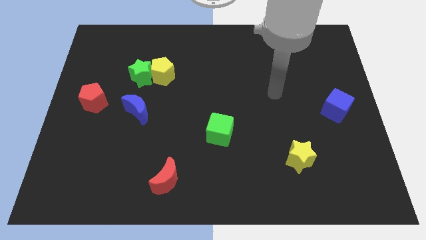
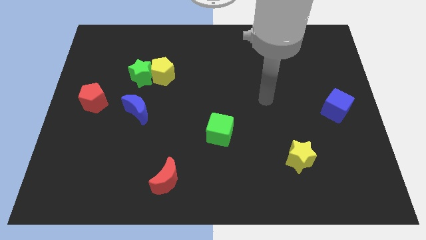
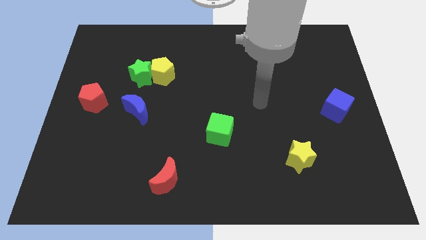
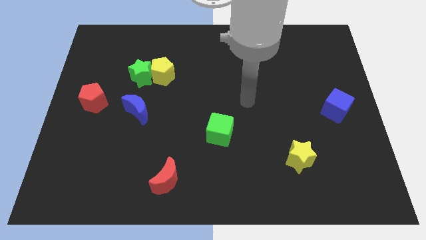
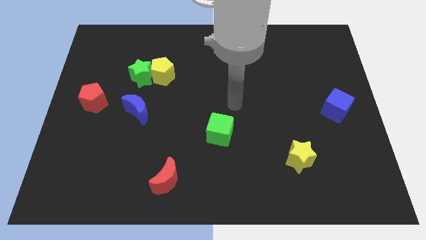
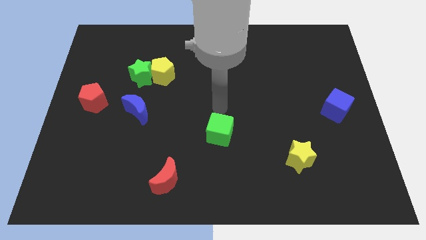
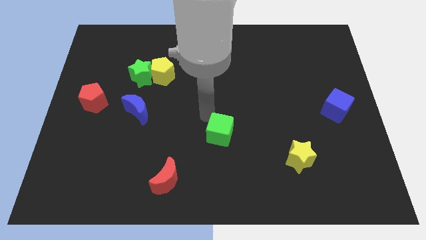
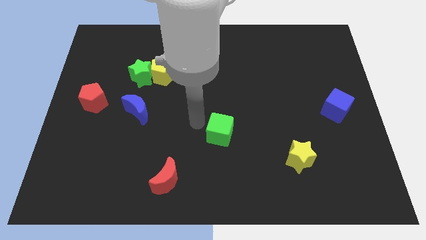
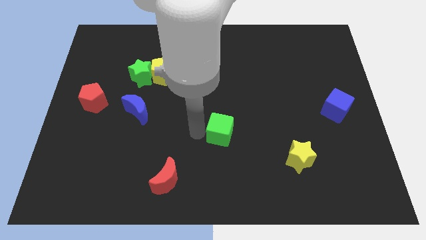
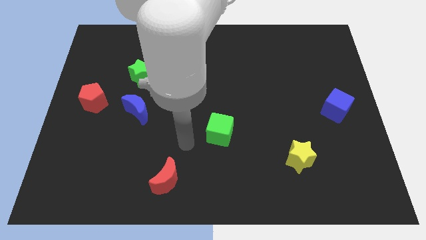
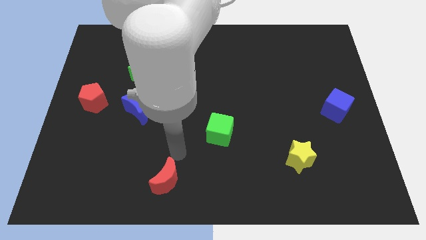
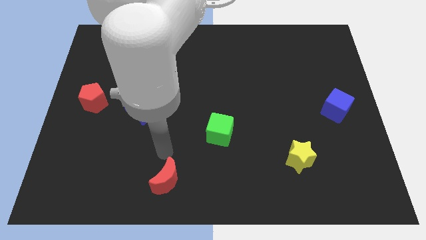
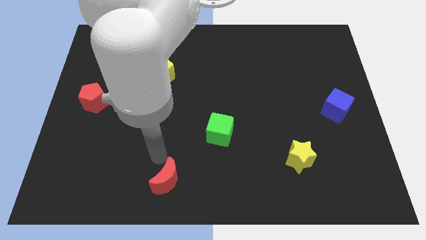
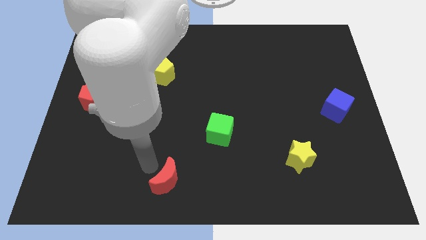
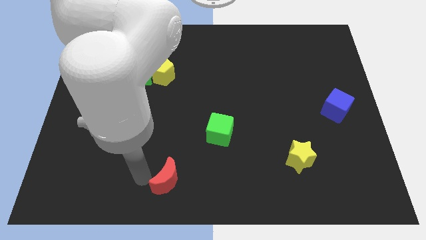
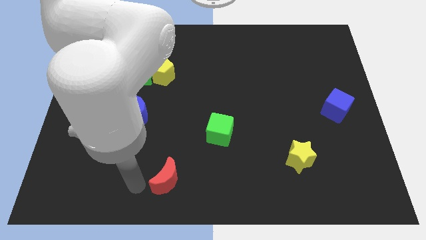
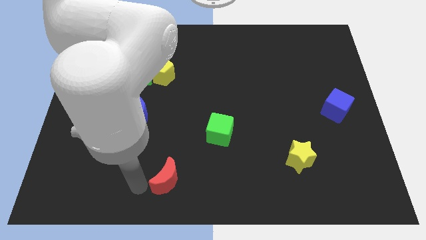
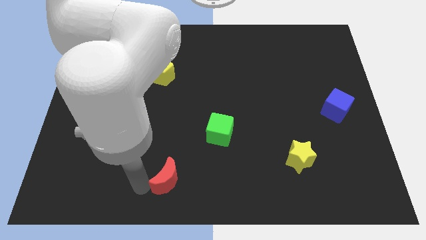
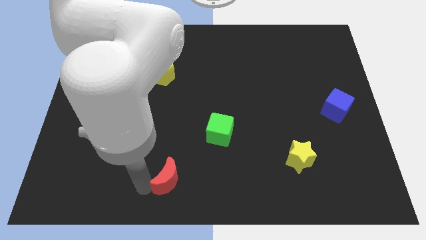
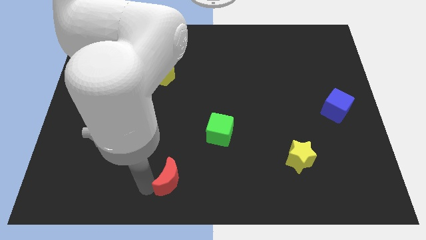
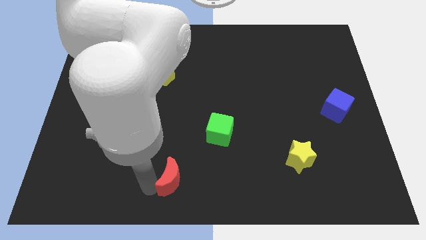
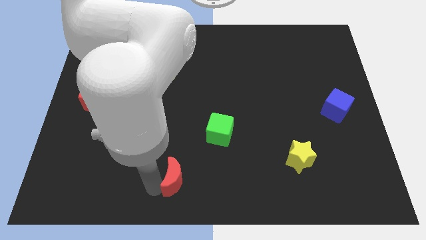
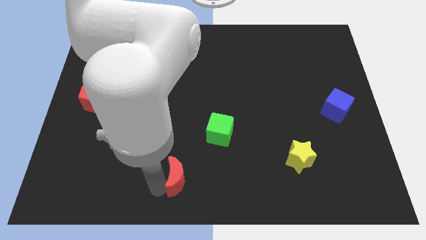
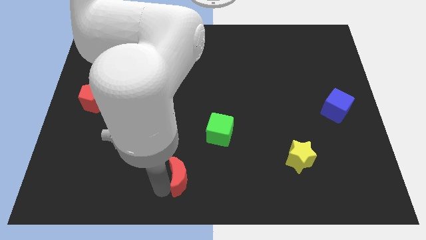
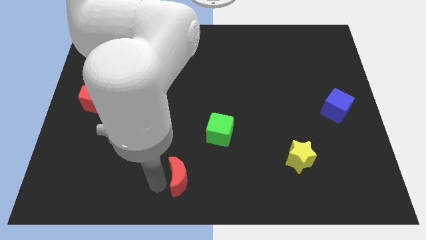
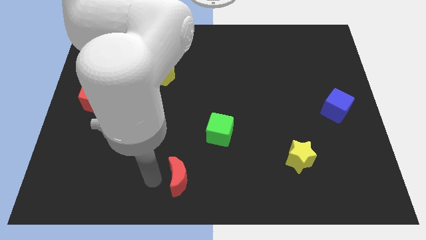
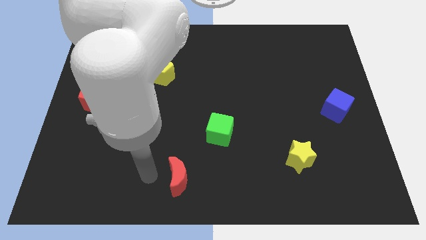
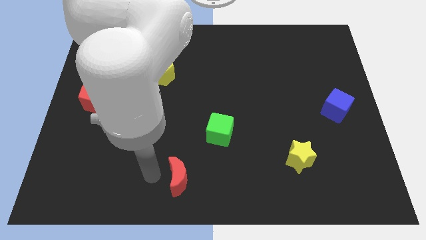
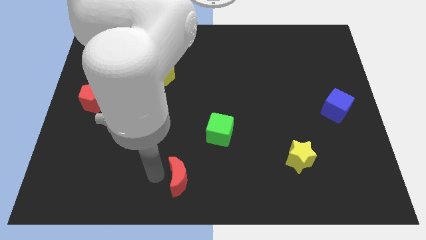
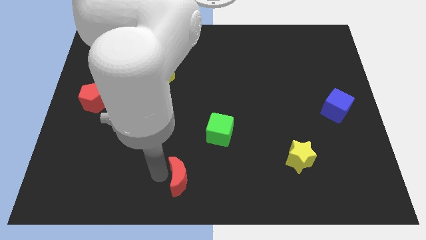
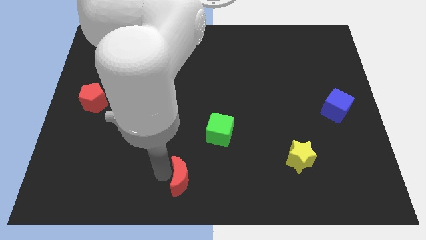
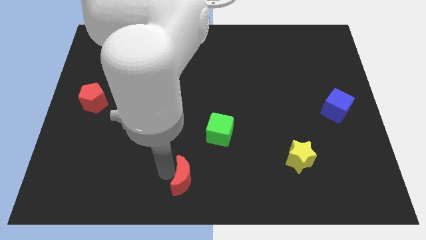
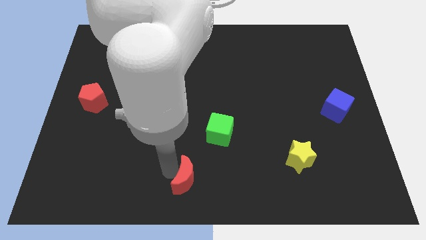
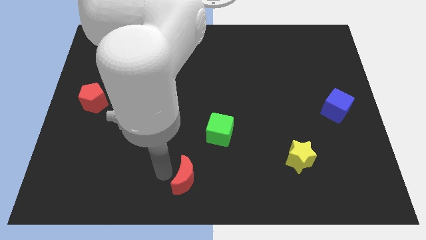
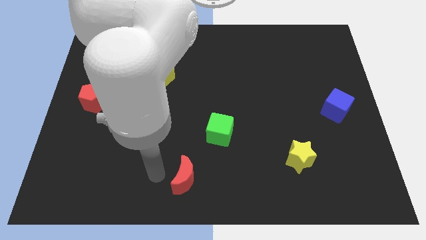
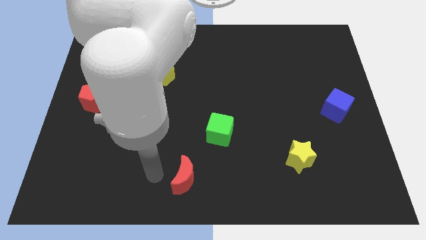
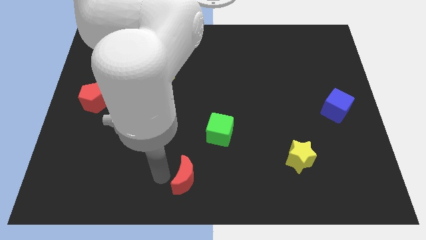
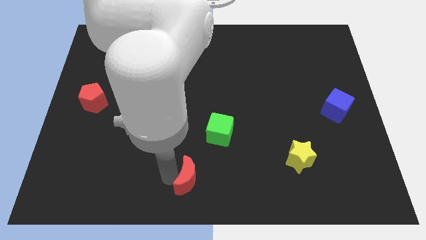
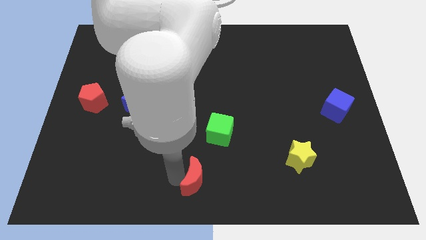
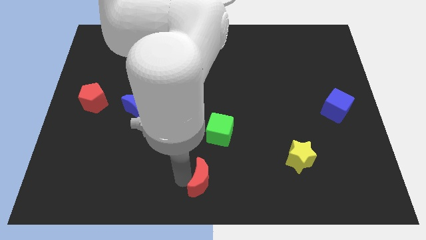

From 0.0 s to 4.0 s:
push the red moon slightly right

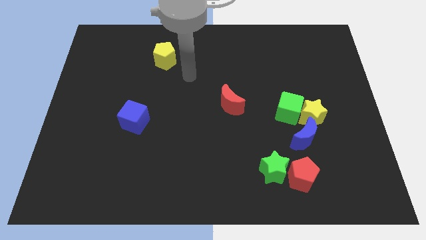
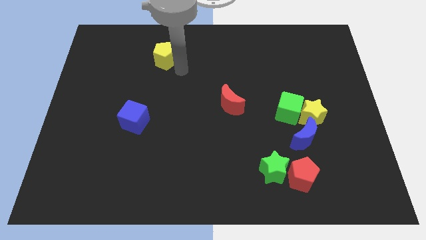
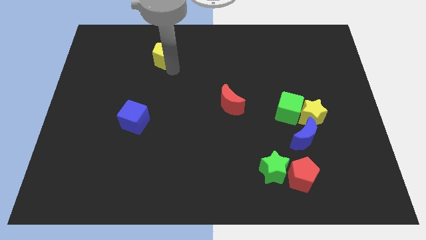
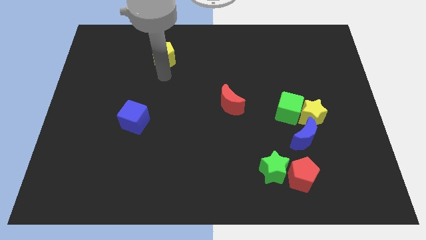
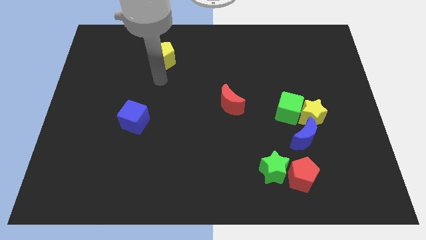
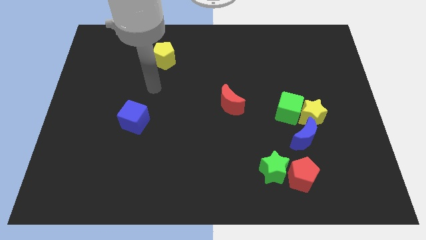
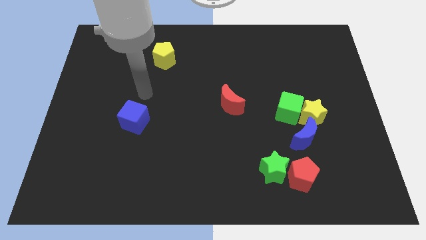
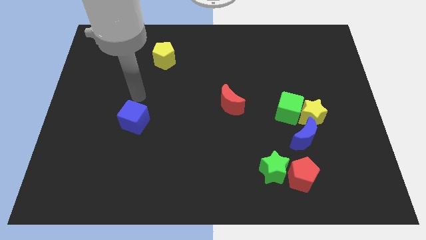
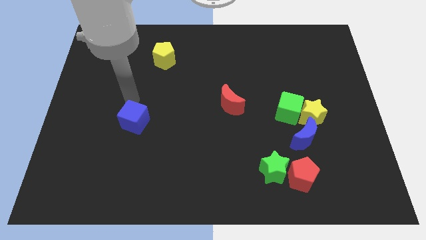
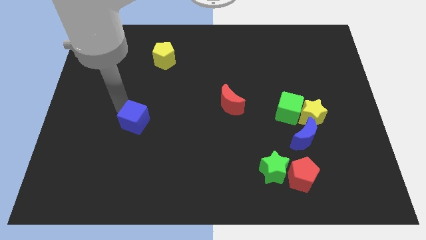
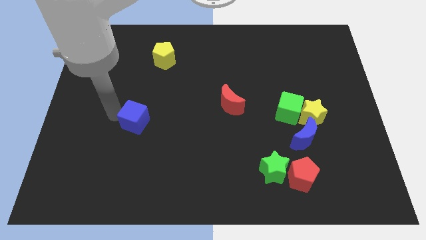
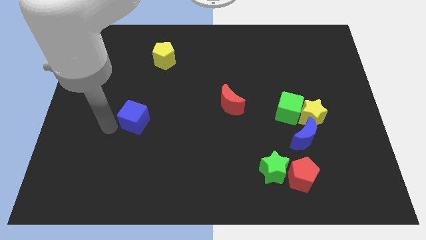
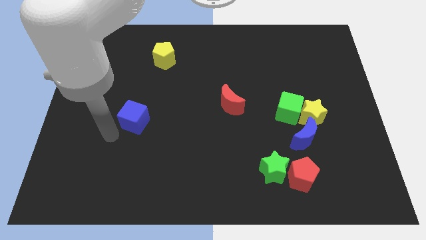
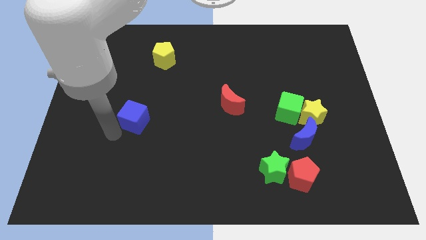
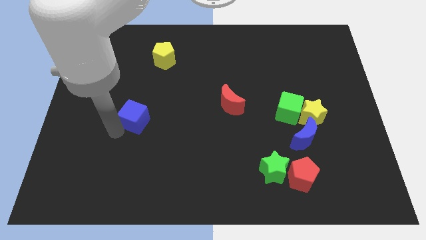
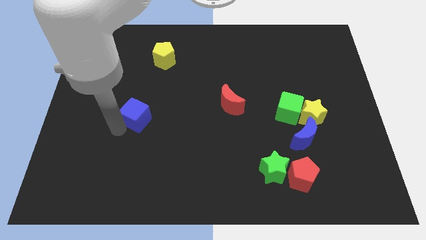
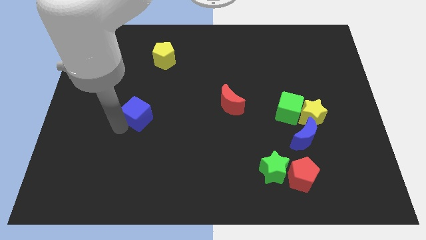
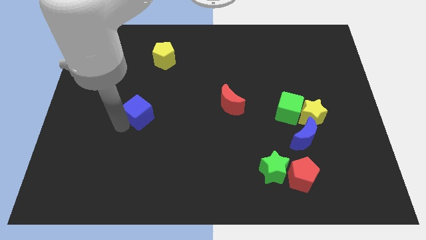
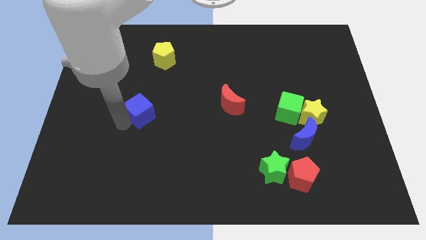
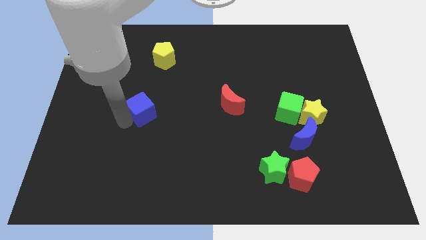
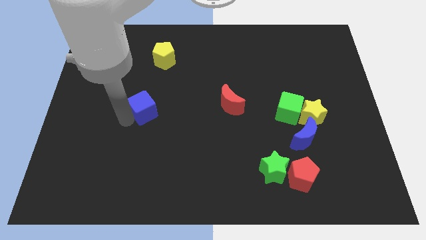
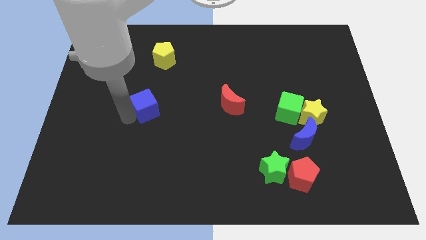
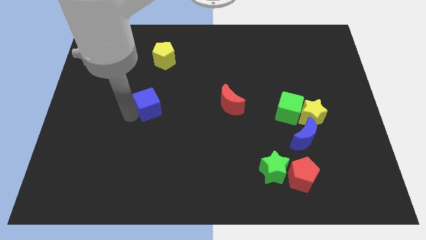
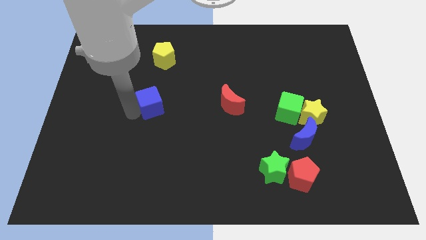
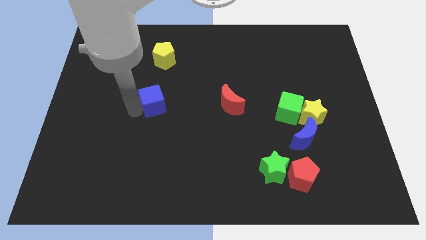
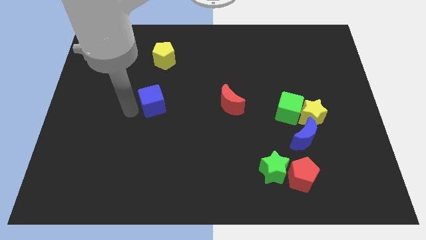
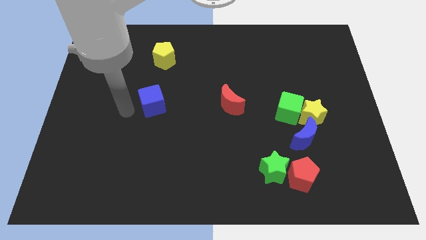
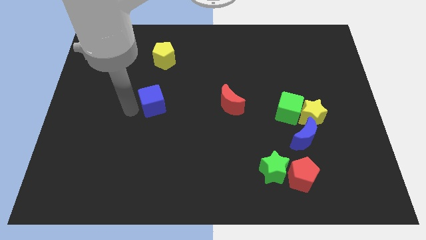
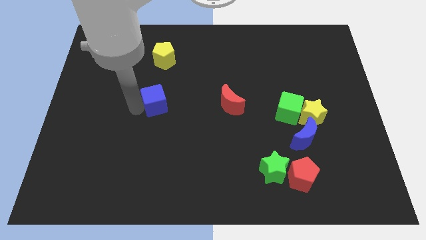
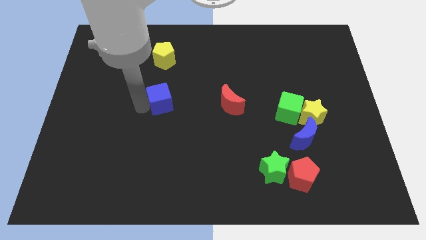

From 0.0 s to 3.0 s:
slightly move the blue cube diagonally upwards and to the right

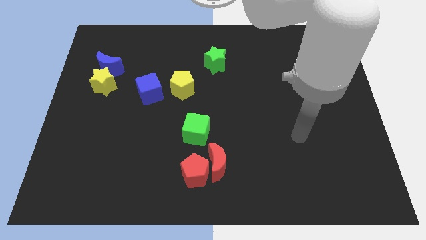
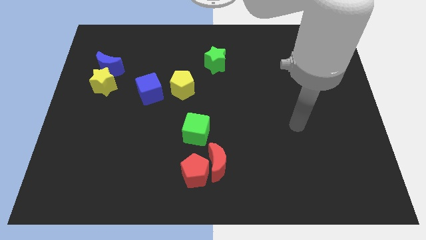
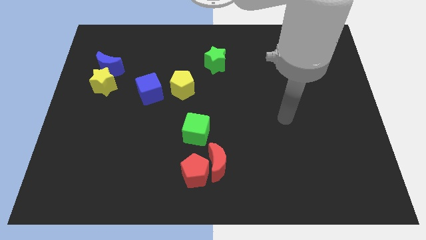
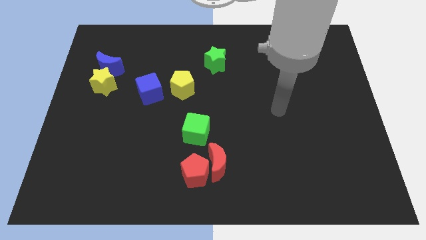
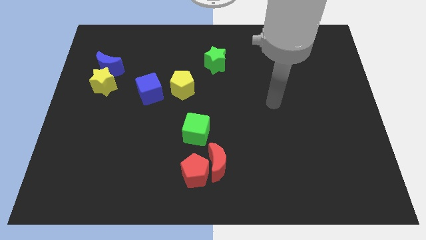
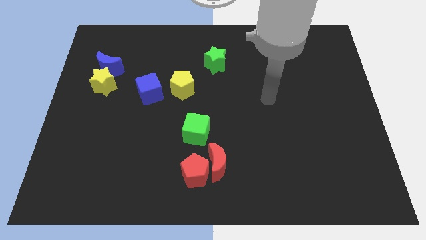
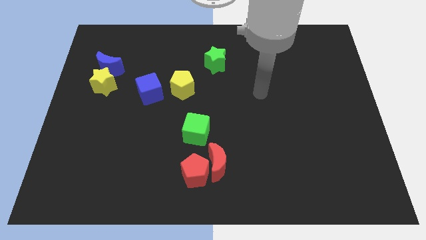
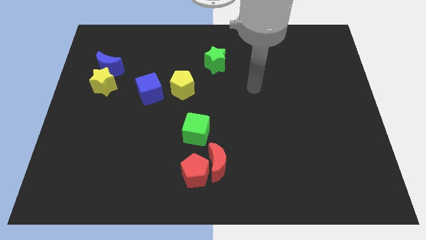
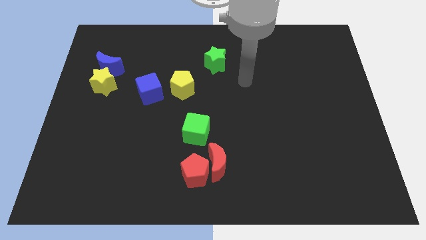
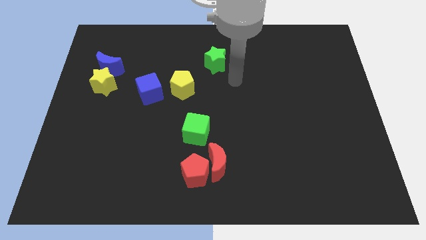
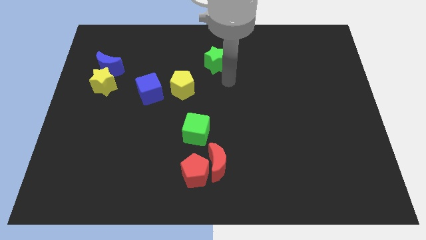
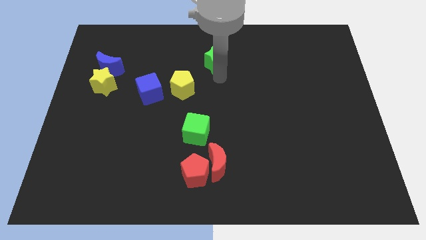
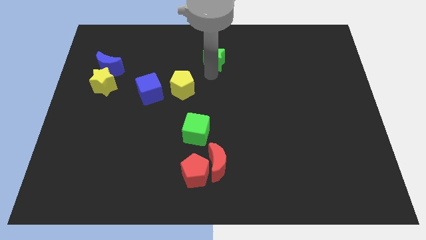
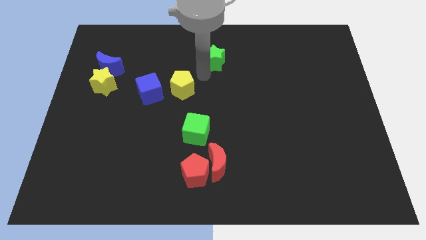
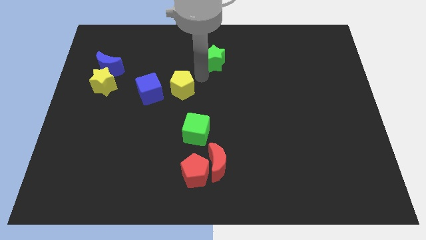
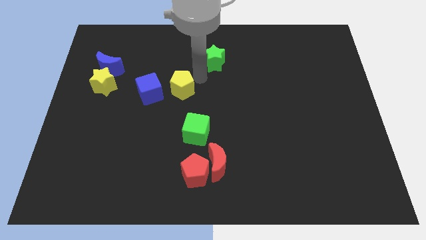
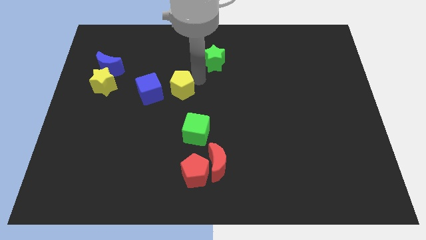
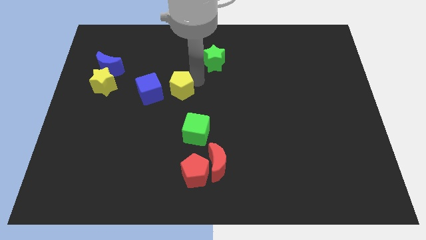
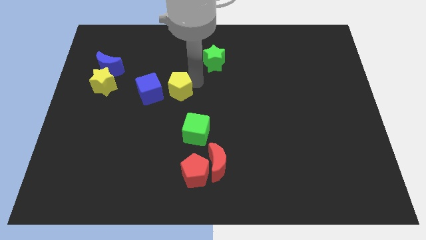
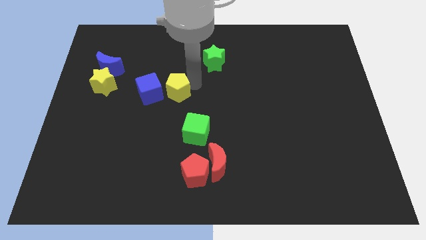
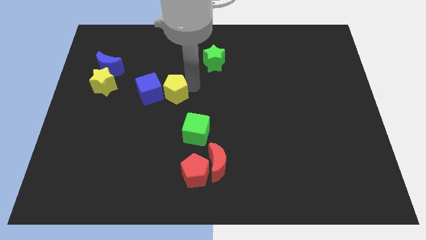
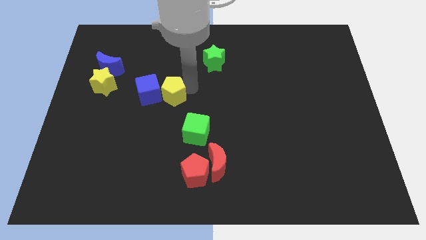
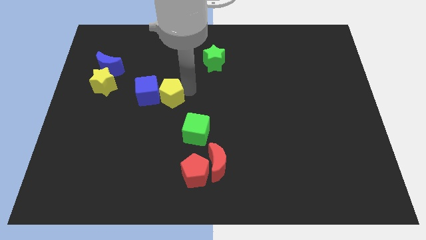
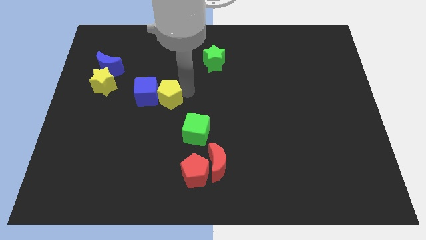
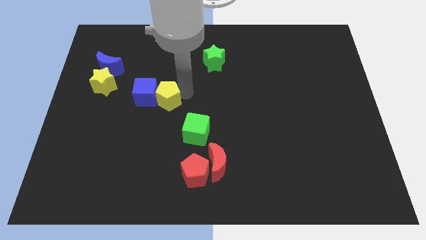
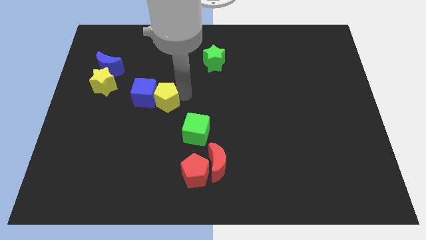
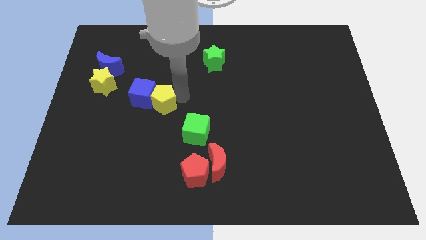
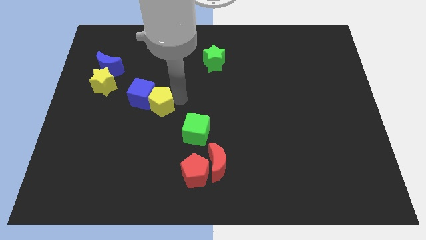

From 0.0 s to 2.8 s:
slightly move the yellow pentagon downwards and to the left
